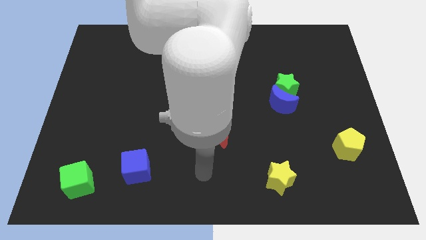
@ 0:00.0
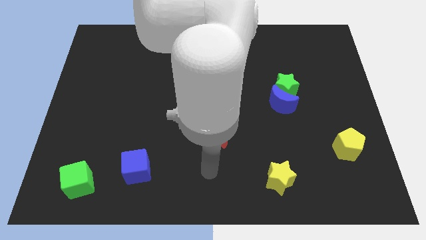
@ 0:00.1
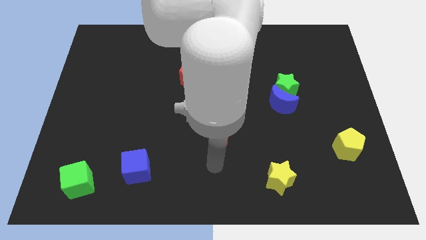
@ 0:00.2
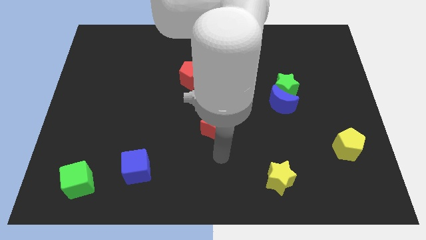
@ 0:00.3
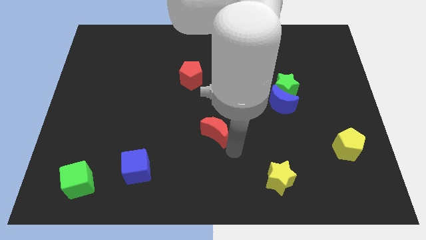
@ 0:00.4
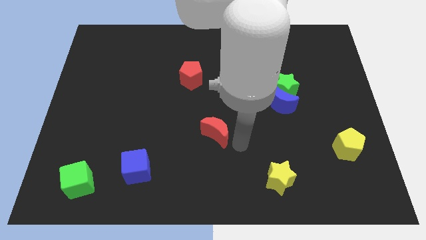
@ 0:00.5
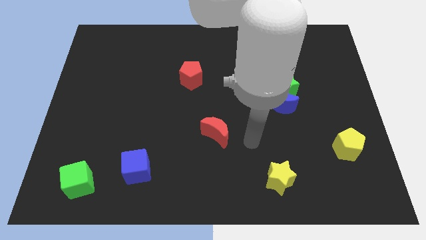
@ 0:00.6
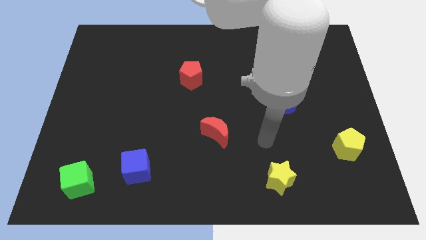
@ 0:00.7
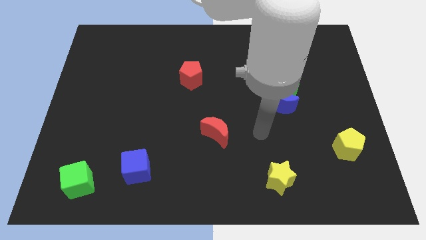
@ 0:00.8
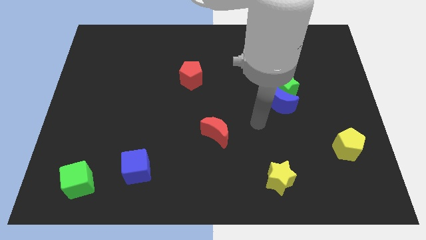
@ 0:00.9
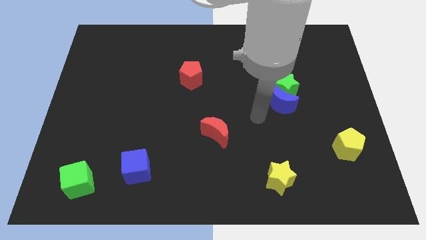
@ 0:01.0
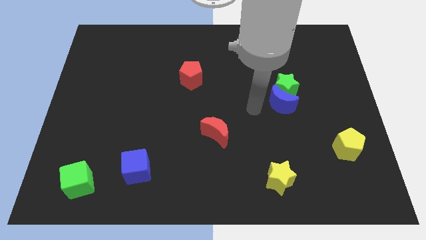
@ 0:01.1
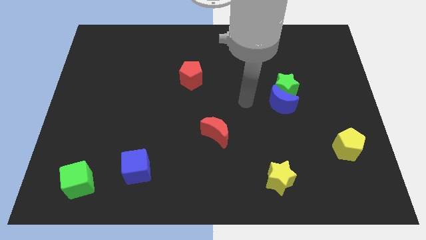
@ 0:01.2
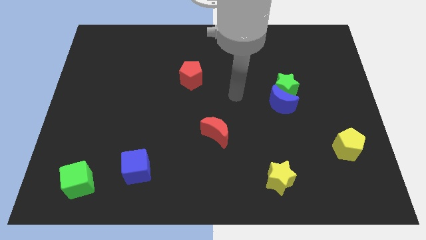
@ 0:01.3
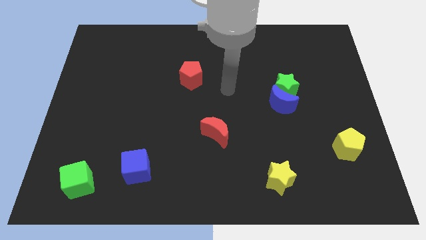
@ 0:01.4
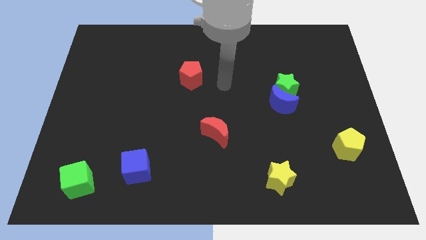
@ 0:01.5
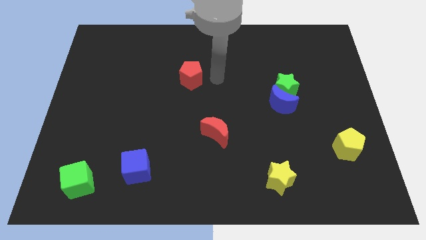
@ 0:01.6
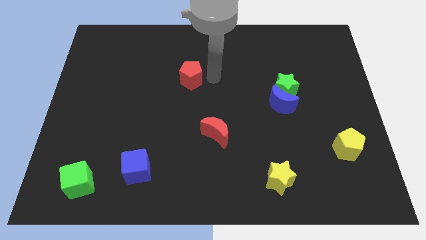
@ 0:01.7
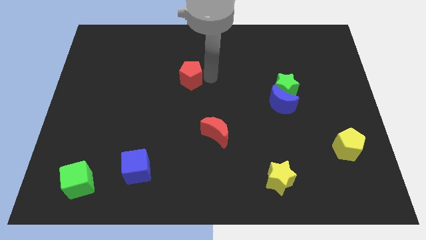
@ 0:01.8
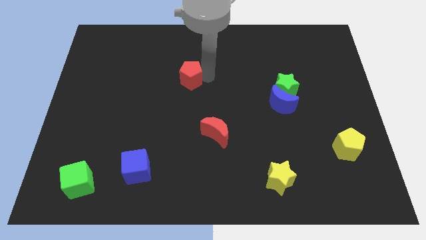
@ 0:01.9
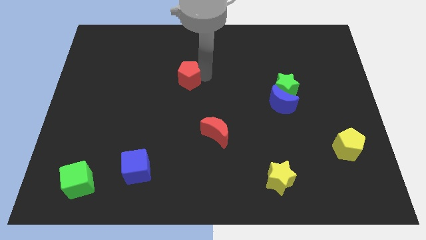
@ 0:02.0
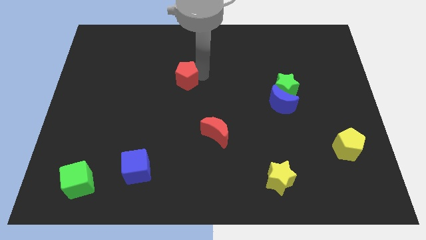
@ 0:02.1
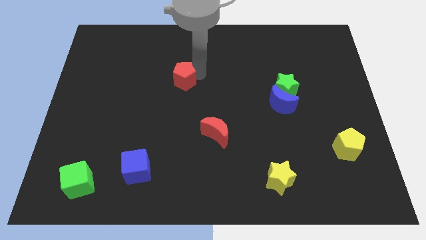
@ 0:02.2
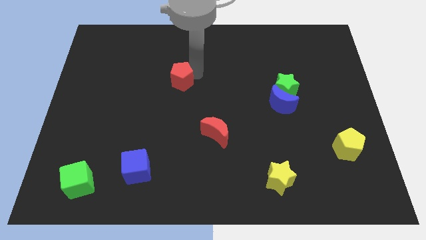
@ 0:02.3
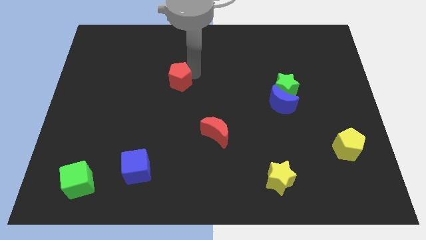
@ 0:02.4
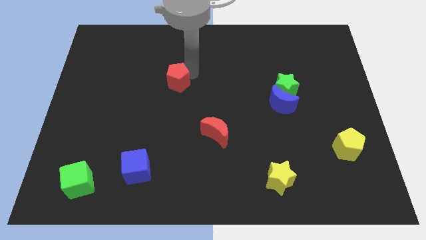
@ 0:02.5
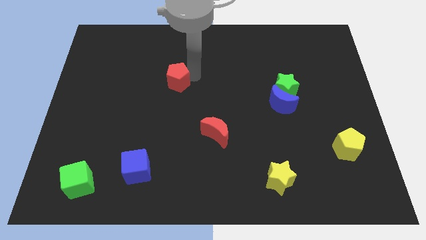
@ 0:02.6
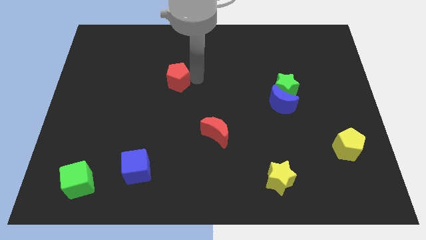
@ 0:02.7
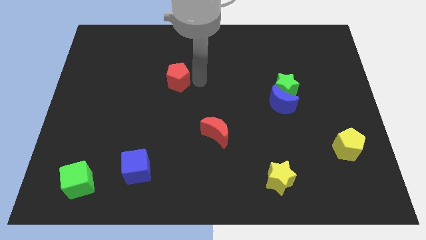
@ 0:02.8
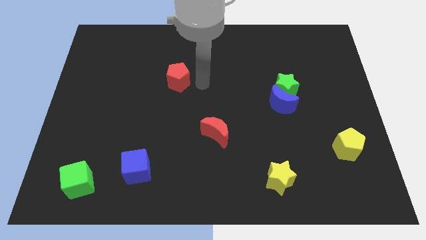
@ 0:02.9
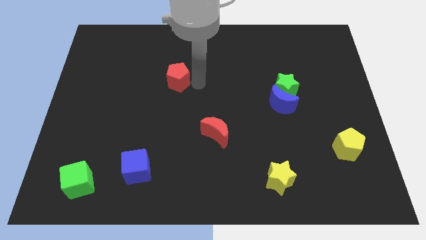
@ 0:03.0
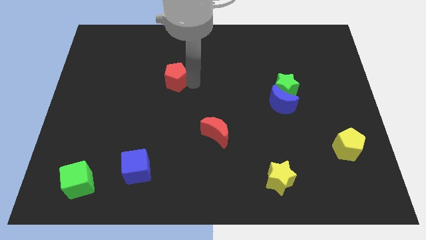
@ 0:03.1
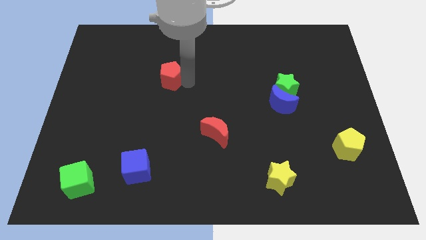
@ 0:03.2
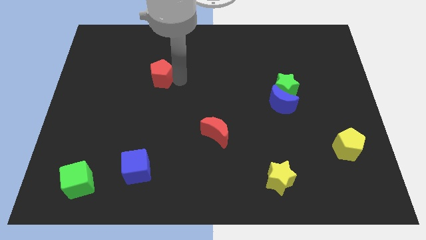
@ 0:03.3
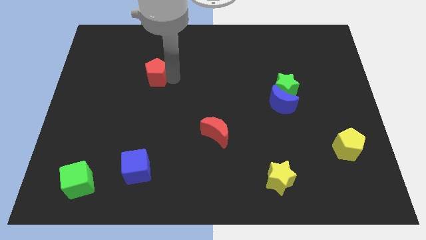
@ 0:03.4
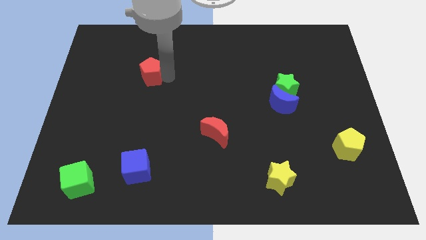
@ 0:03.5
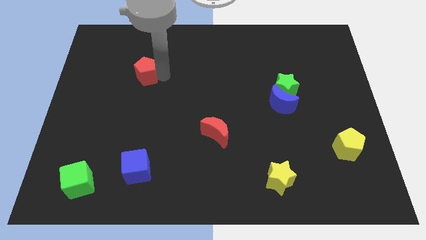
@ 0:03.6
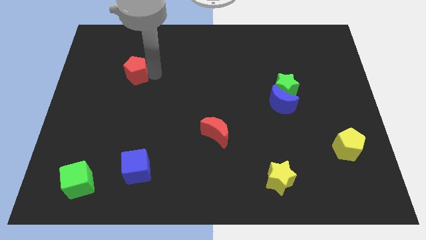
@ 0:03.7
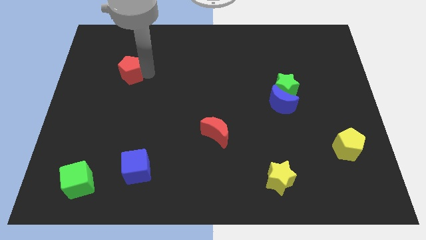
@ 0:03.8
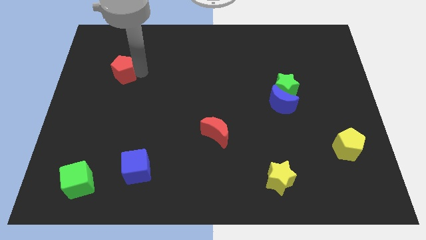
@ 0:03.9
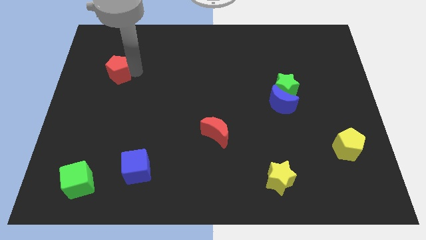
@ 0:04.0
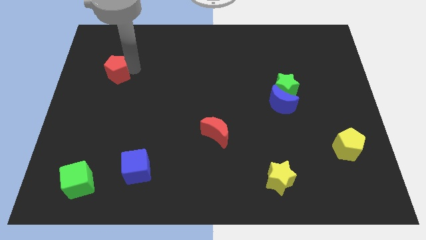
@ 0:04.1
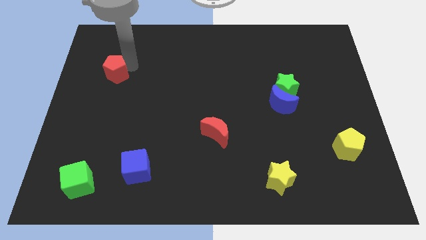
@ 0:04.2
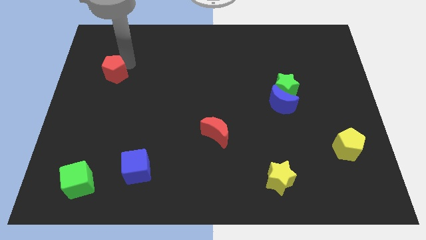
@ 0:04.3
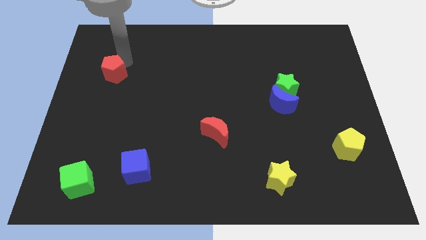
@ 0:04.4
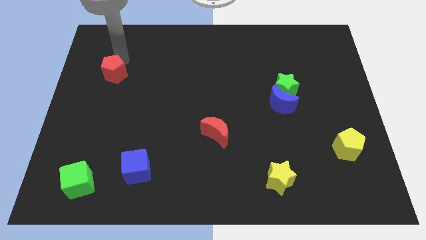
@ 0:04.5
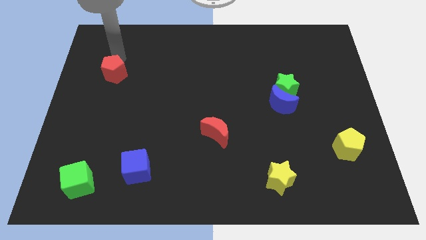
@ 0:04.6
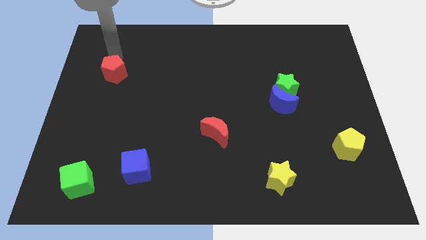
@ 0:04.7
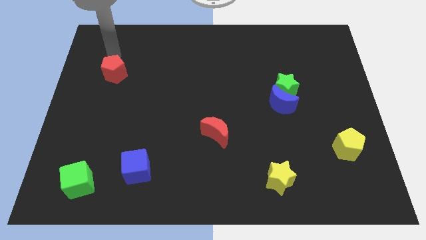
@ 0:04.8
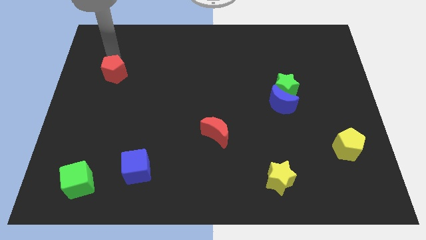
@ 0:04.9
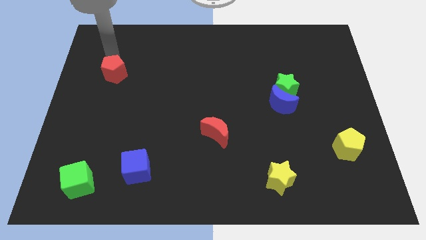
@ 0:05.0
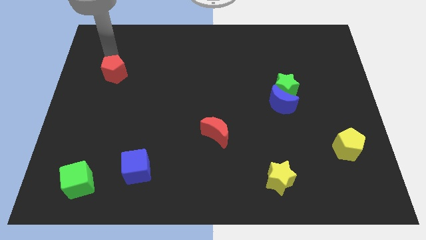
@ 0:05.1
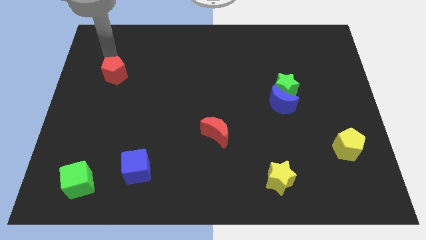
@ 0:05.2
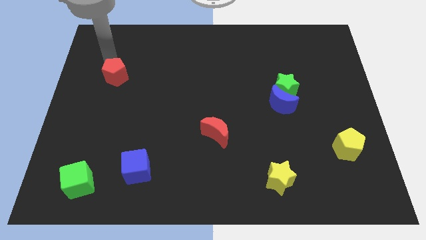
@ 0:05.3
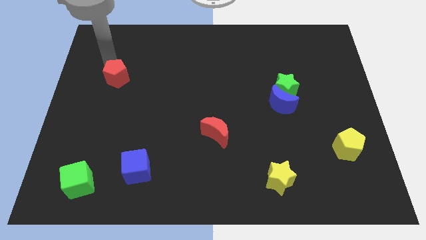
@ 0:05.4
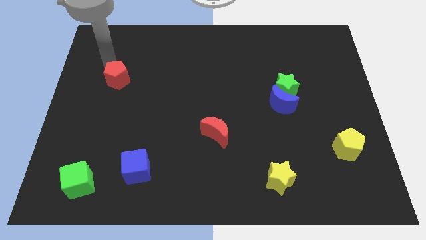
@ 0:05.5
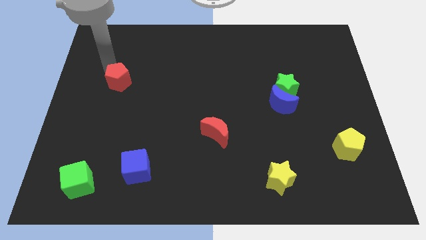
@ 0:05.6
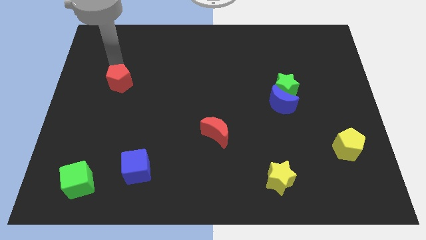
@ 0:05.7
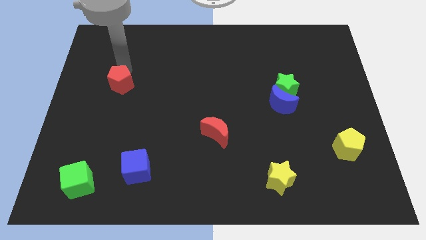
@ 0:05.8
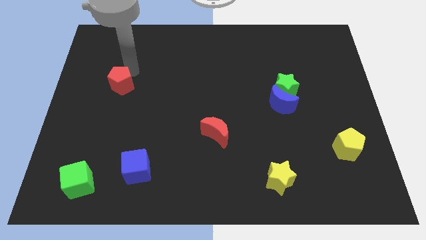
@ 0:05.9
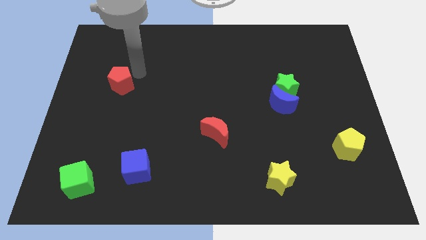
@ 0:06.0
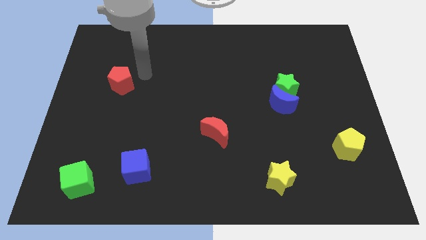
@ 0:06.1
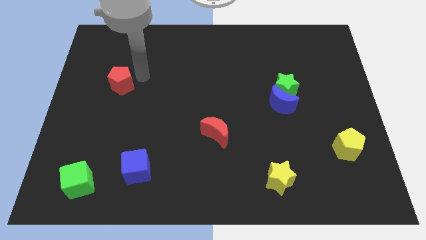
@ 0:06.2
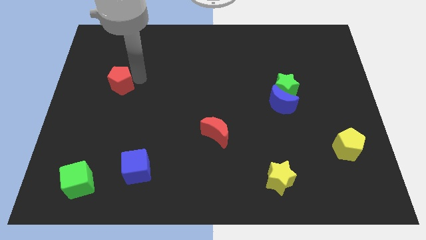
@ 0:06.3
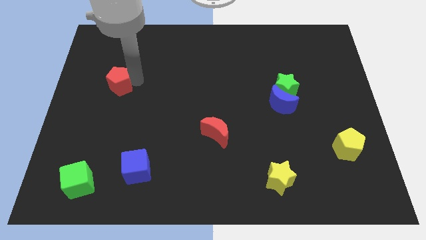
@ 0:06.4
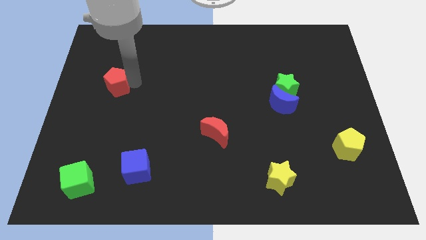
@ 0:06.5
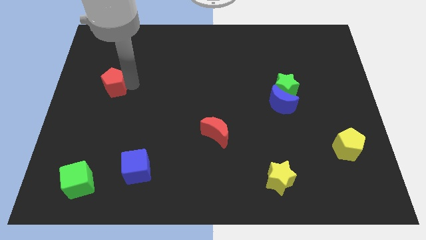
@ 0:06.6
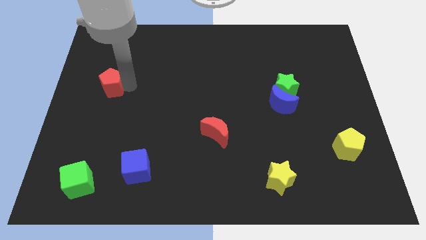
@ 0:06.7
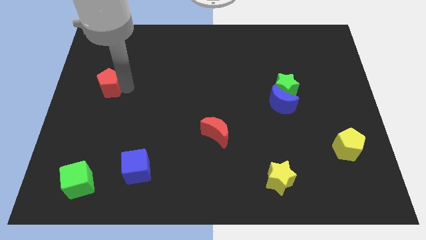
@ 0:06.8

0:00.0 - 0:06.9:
push the red pentagon to the left side

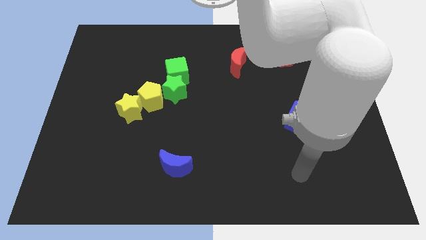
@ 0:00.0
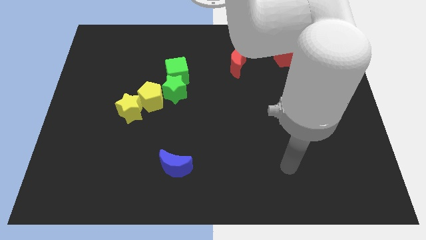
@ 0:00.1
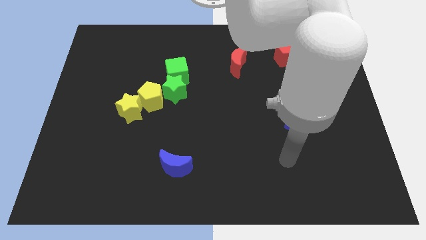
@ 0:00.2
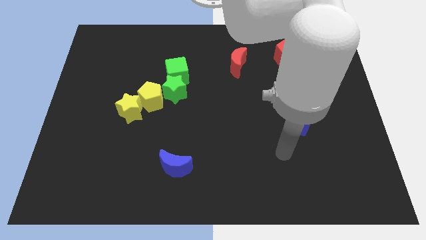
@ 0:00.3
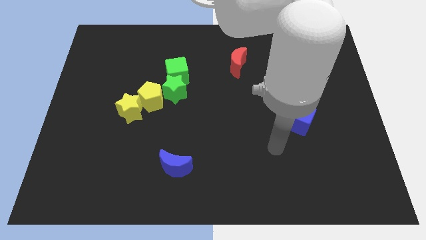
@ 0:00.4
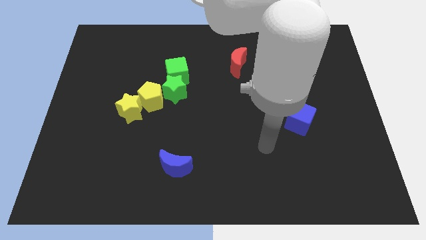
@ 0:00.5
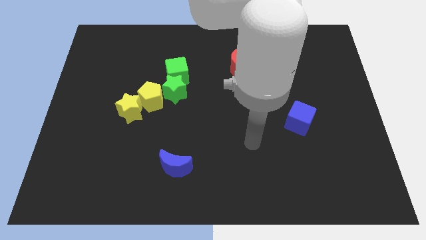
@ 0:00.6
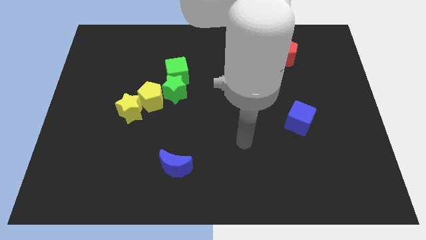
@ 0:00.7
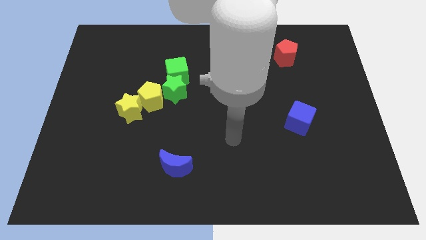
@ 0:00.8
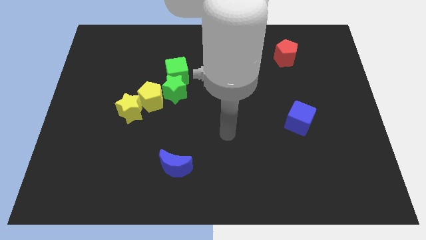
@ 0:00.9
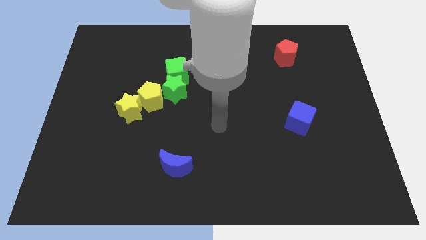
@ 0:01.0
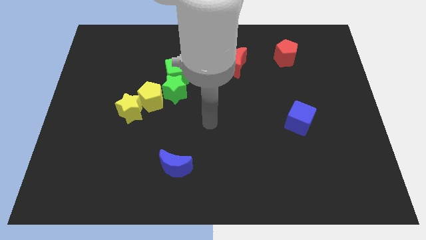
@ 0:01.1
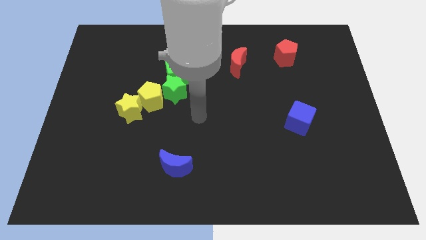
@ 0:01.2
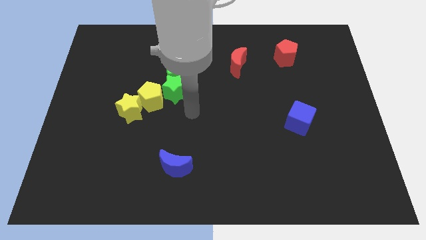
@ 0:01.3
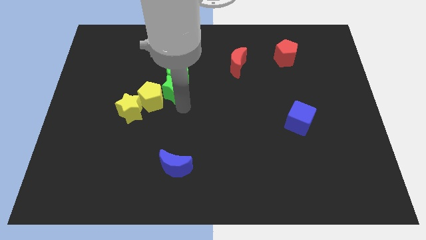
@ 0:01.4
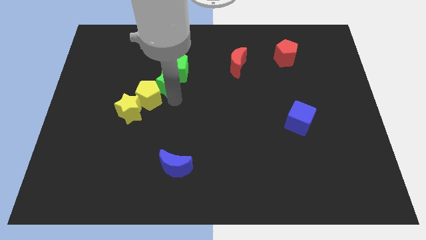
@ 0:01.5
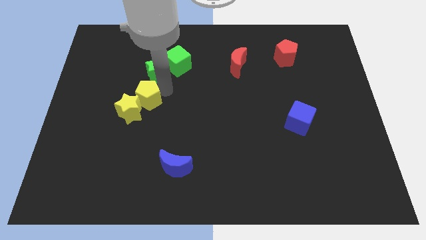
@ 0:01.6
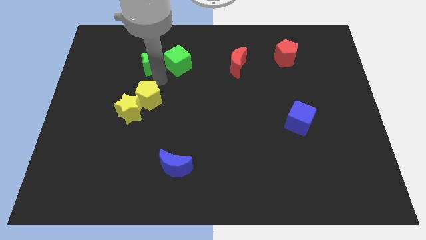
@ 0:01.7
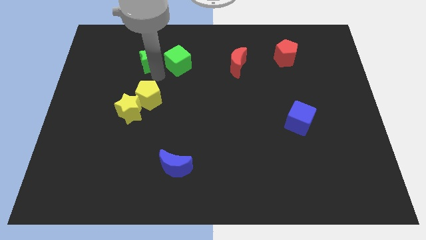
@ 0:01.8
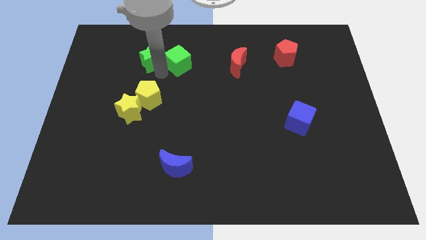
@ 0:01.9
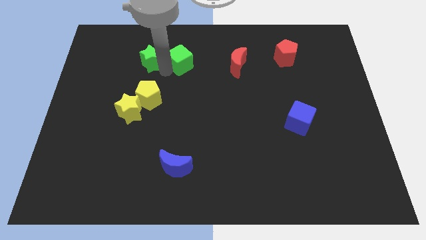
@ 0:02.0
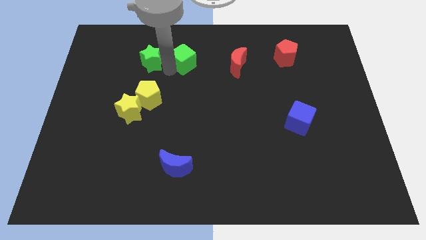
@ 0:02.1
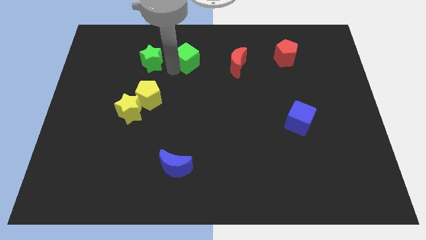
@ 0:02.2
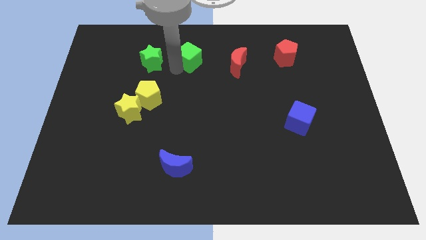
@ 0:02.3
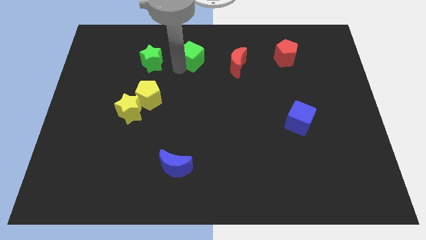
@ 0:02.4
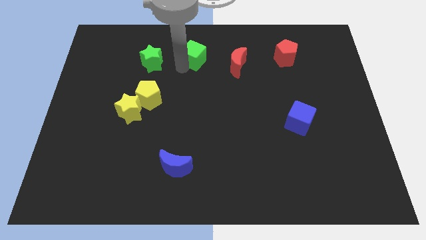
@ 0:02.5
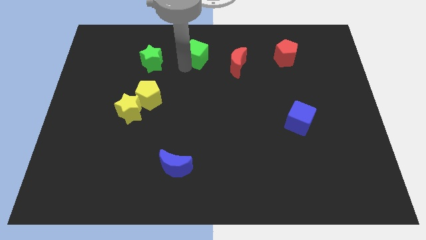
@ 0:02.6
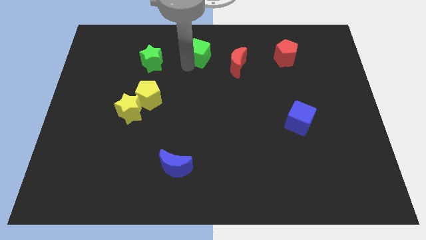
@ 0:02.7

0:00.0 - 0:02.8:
slide the green cube to the top
